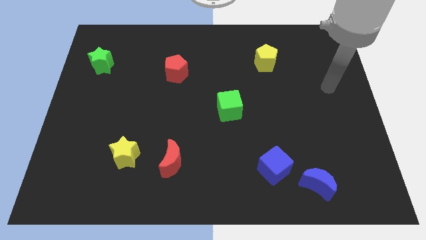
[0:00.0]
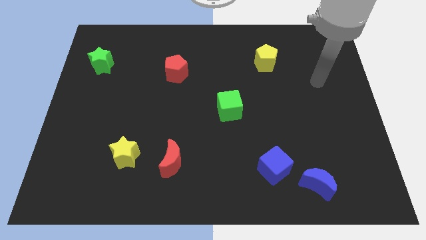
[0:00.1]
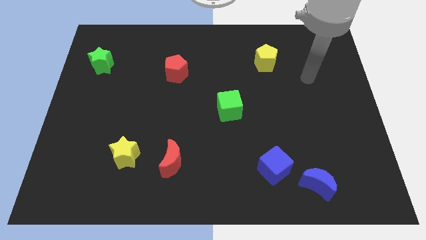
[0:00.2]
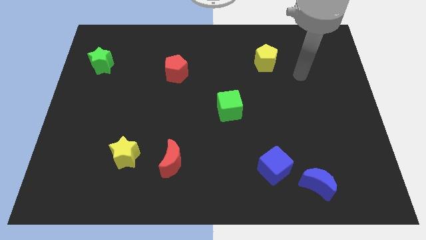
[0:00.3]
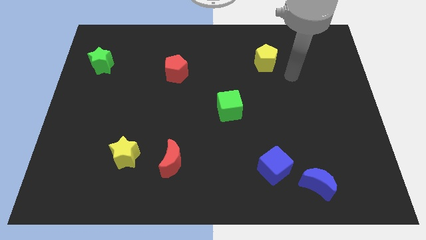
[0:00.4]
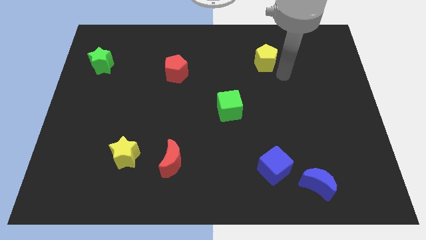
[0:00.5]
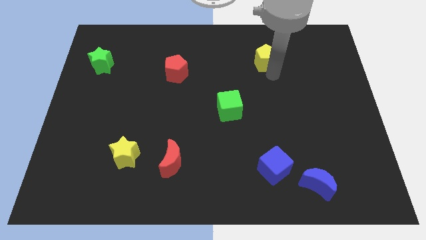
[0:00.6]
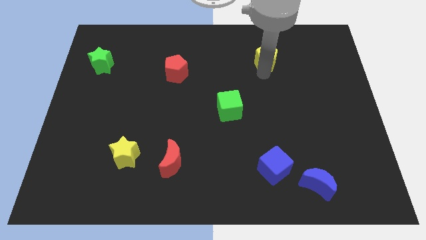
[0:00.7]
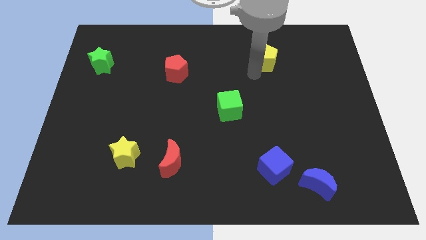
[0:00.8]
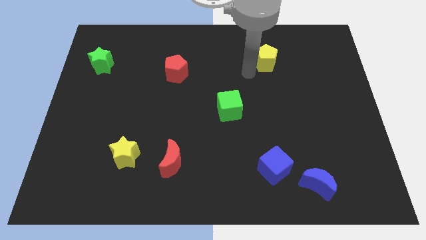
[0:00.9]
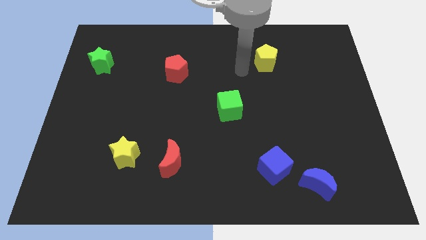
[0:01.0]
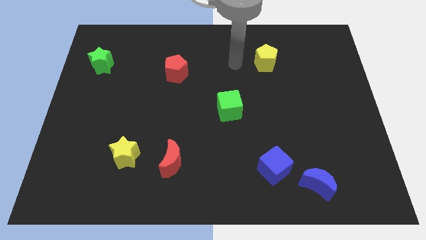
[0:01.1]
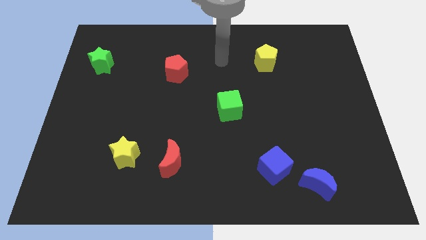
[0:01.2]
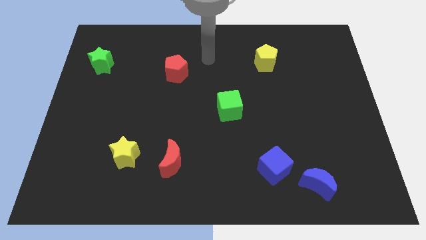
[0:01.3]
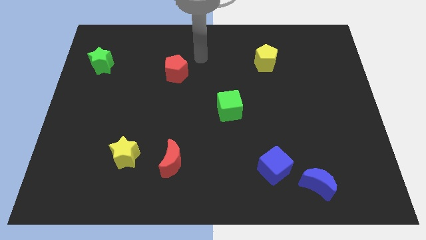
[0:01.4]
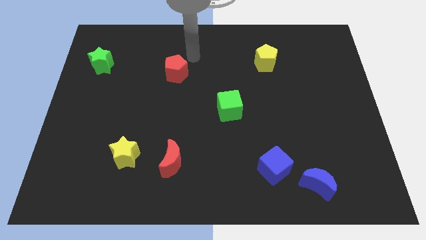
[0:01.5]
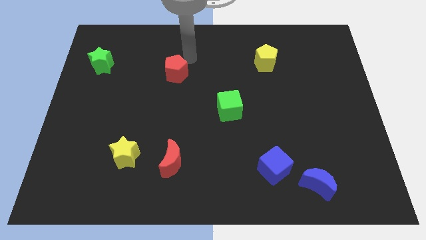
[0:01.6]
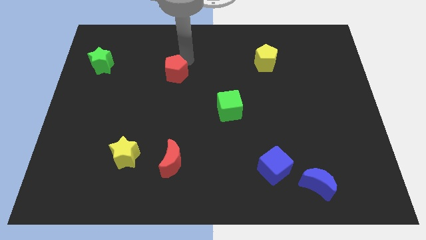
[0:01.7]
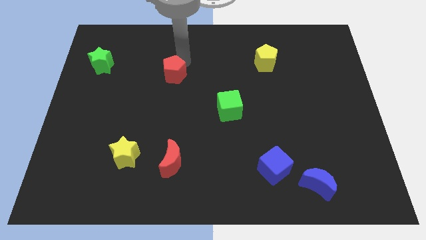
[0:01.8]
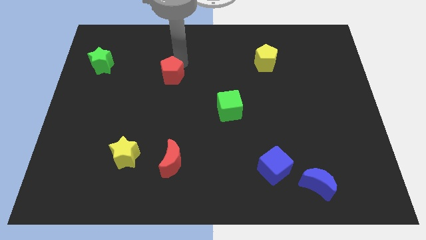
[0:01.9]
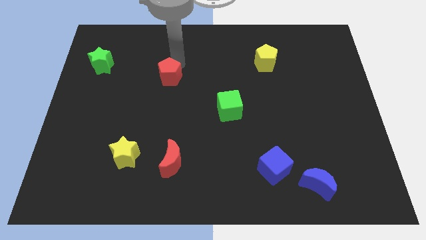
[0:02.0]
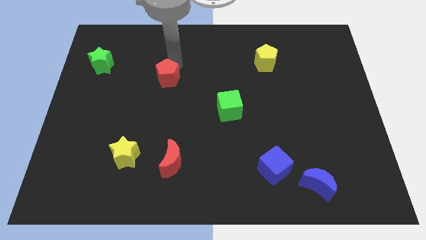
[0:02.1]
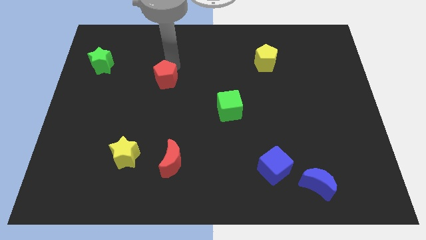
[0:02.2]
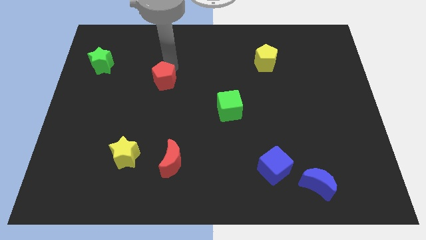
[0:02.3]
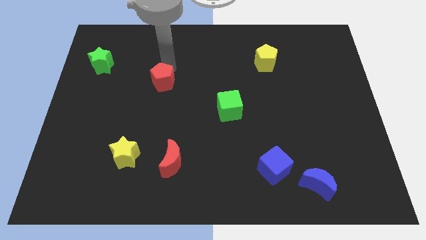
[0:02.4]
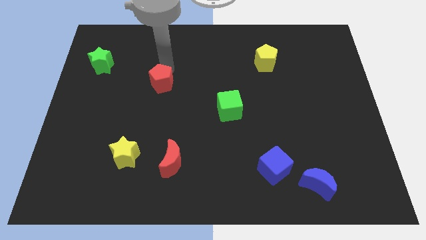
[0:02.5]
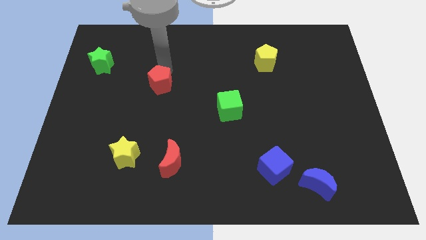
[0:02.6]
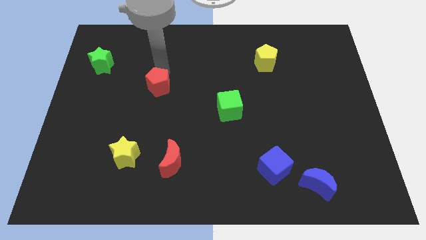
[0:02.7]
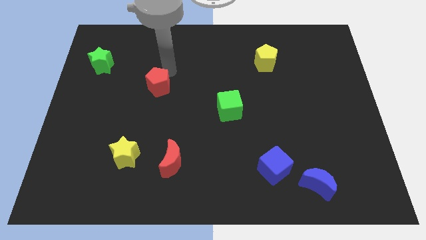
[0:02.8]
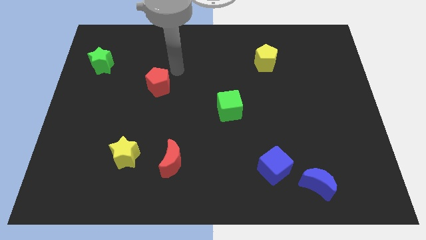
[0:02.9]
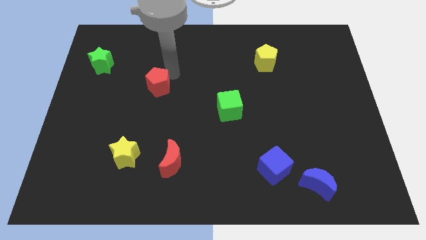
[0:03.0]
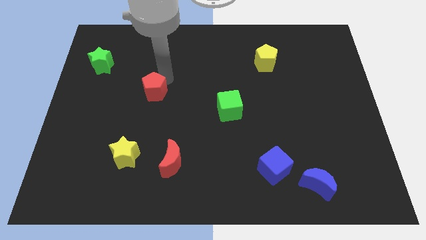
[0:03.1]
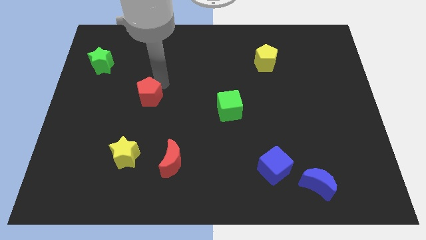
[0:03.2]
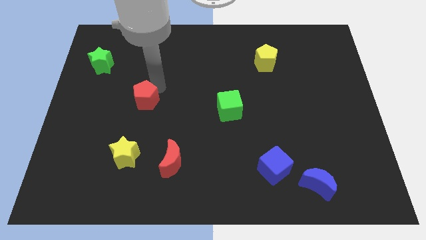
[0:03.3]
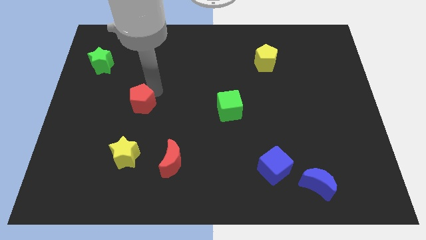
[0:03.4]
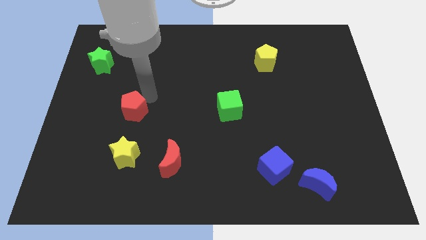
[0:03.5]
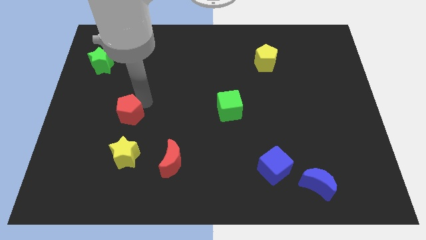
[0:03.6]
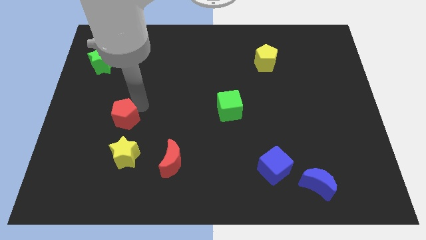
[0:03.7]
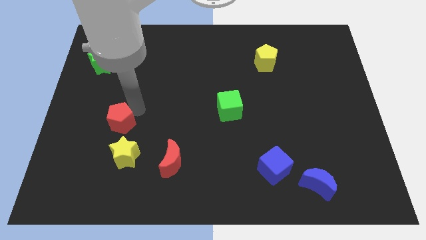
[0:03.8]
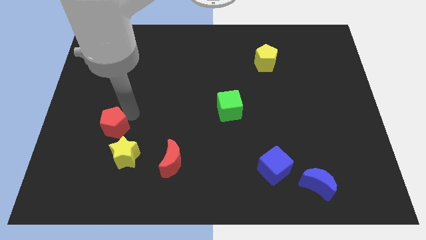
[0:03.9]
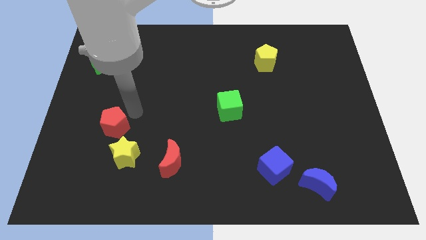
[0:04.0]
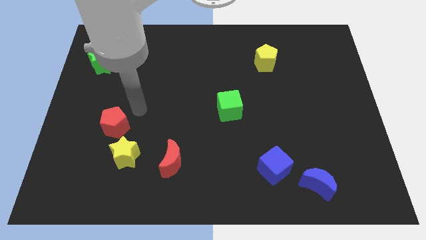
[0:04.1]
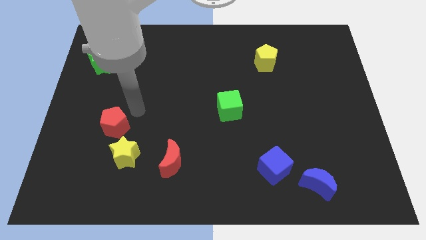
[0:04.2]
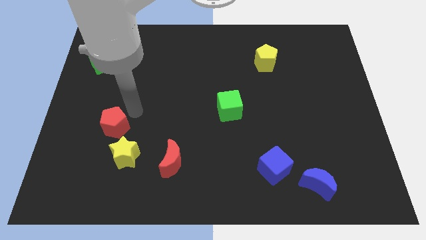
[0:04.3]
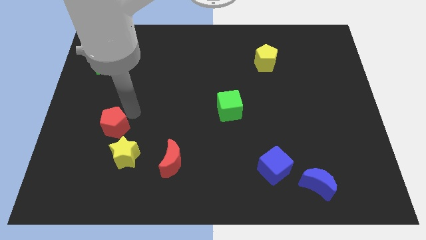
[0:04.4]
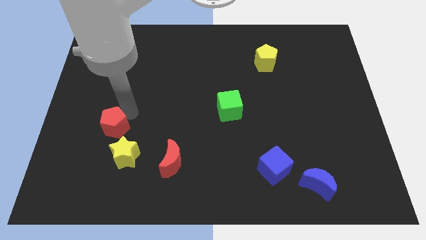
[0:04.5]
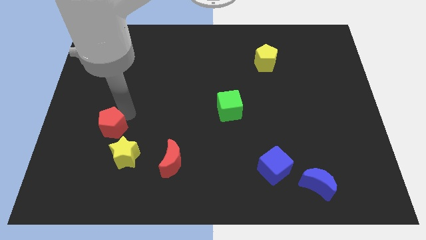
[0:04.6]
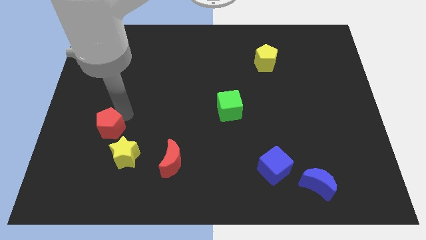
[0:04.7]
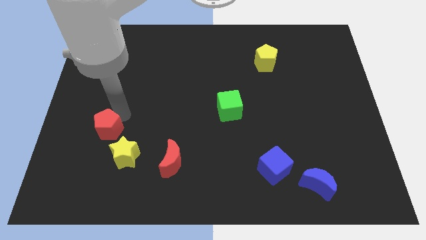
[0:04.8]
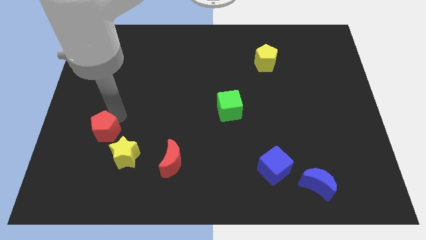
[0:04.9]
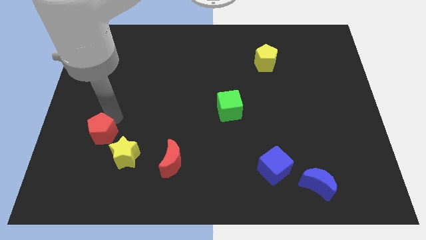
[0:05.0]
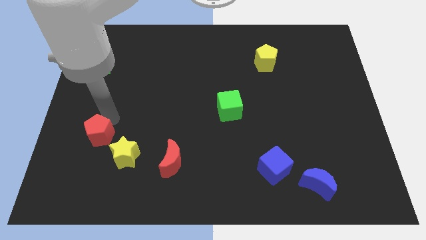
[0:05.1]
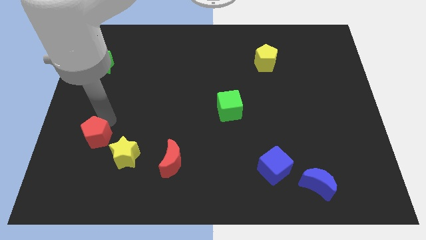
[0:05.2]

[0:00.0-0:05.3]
put the red pentagon to the left side of the yellow star

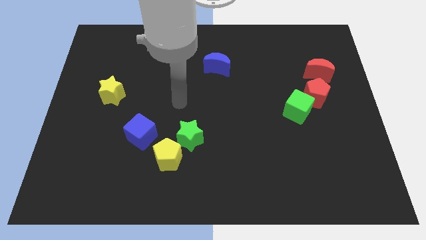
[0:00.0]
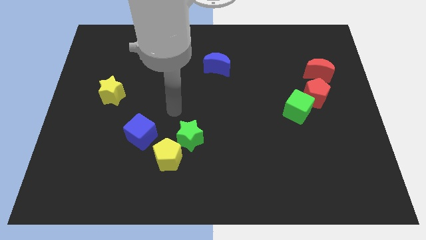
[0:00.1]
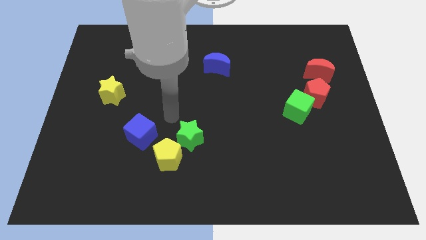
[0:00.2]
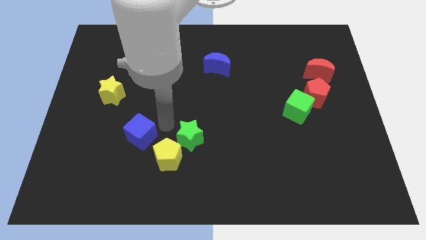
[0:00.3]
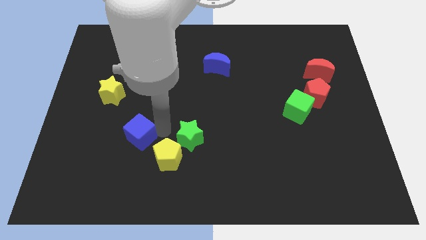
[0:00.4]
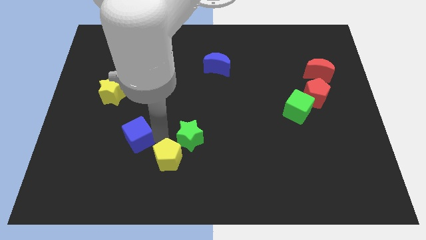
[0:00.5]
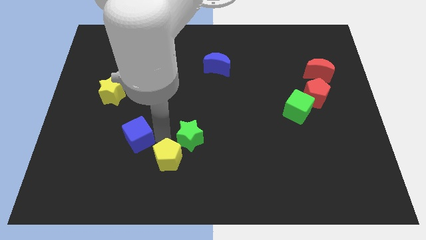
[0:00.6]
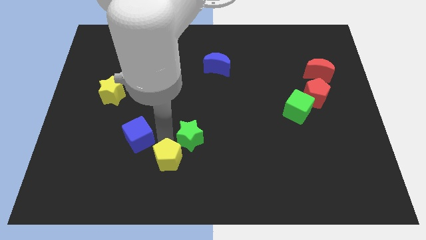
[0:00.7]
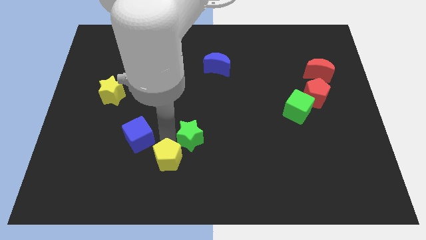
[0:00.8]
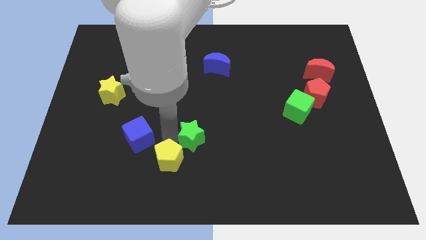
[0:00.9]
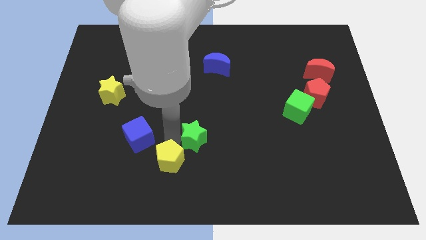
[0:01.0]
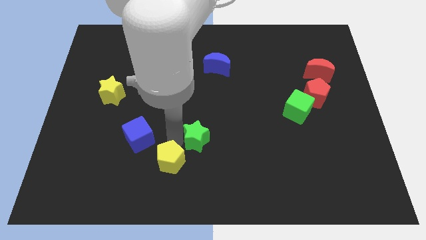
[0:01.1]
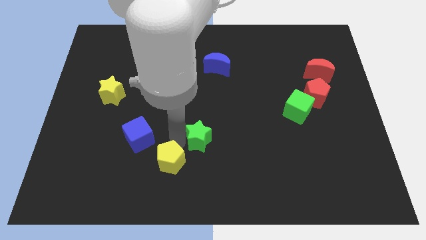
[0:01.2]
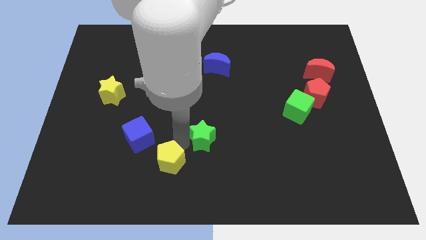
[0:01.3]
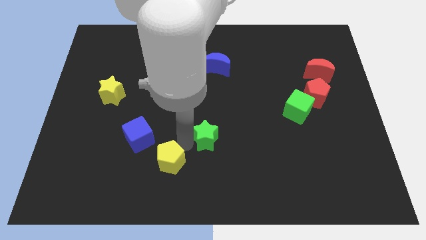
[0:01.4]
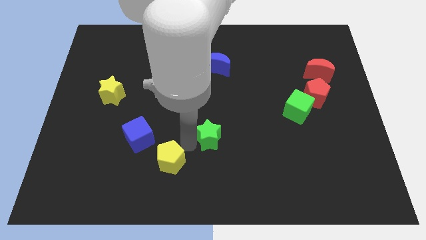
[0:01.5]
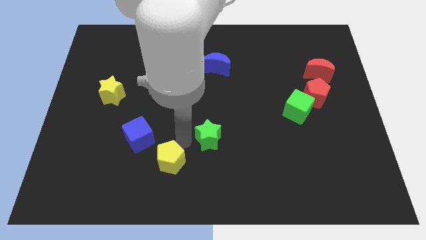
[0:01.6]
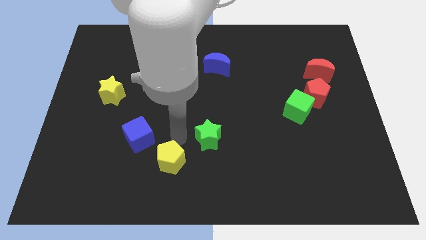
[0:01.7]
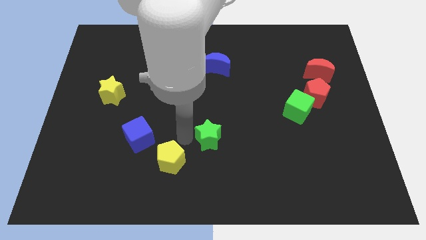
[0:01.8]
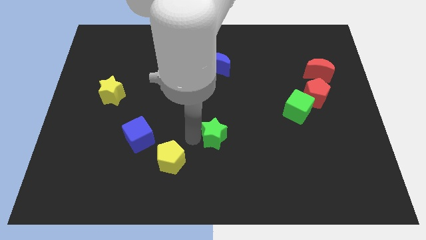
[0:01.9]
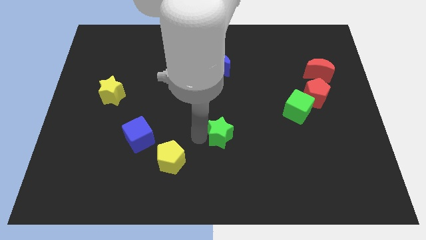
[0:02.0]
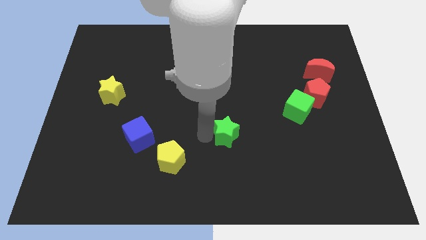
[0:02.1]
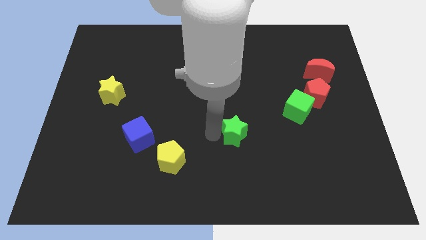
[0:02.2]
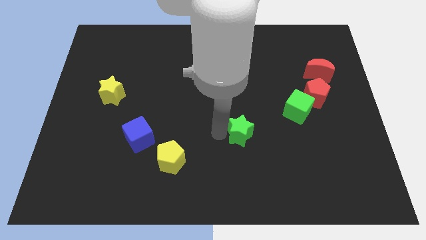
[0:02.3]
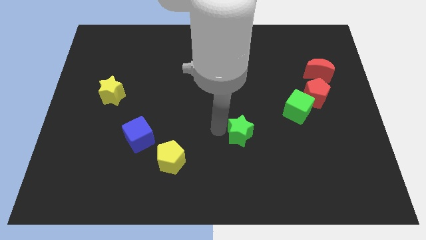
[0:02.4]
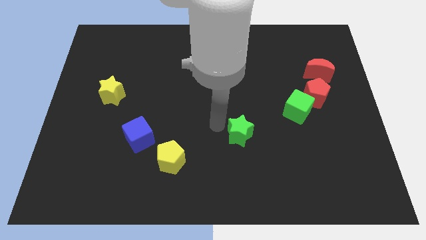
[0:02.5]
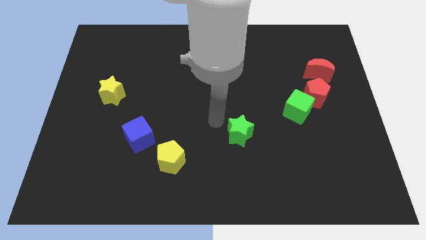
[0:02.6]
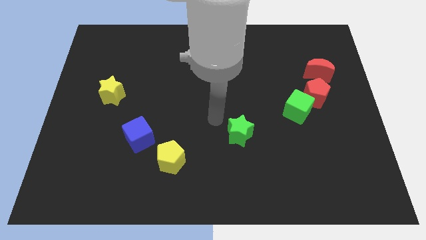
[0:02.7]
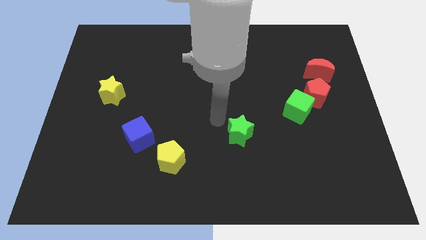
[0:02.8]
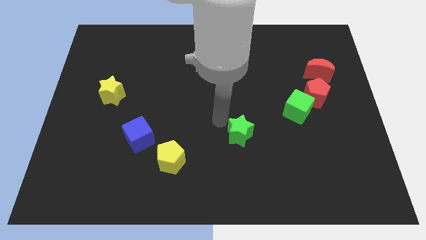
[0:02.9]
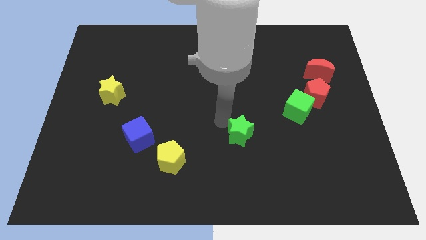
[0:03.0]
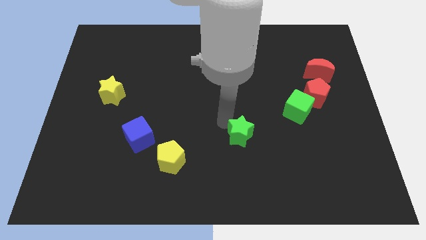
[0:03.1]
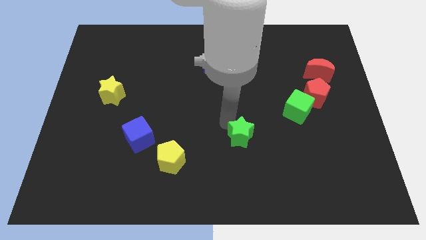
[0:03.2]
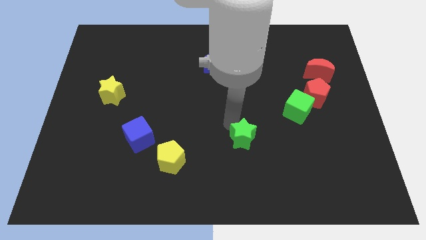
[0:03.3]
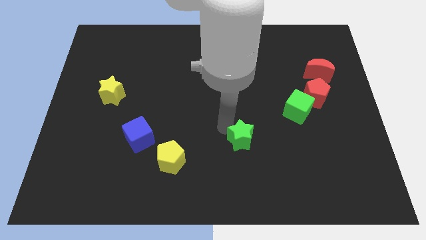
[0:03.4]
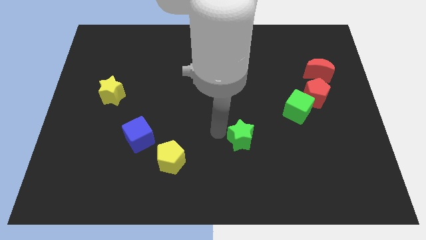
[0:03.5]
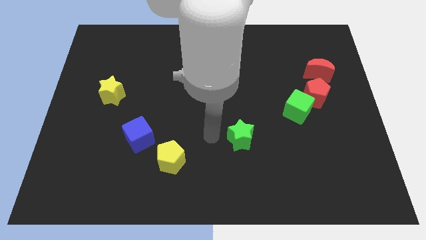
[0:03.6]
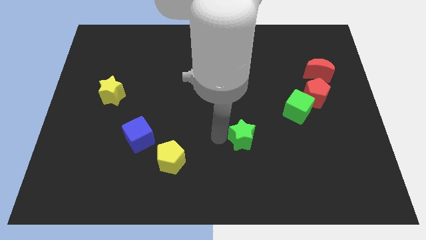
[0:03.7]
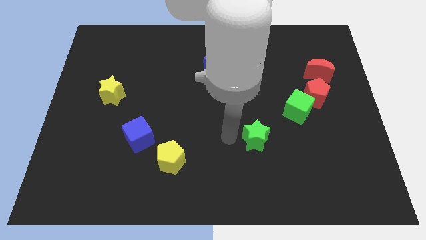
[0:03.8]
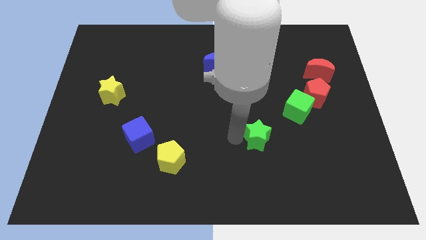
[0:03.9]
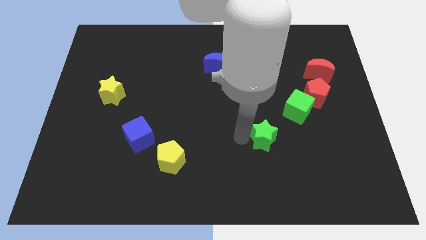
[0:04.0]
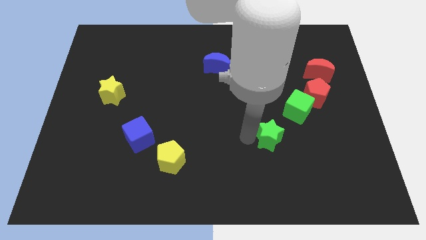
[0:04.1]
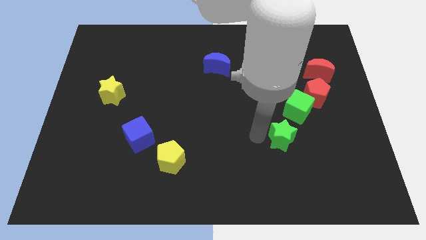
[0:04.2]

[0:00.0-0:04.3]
slide the green star below the green cube
